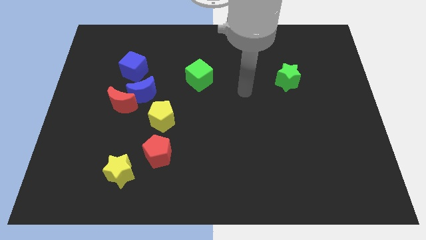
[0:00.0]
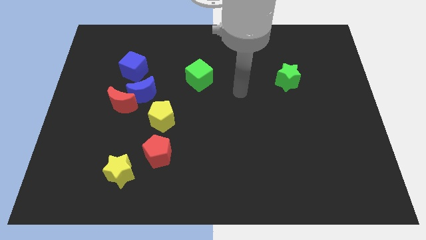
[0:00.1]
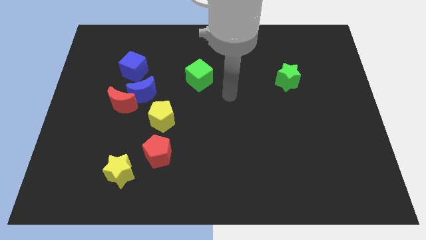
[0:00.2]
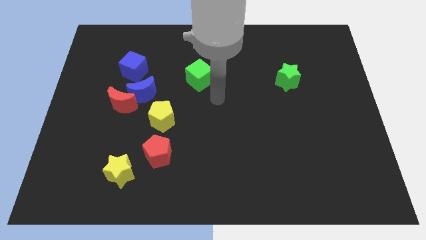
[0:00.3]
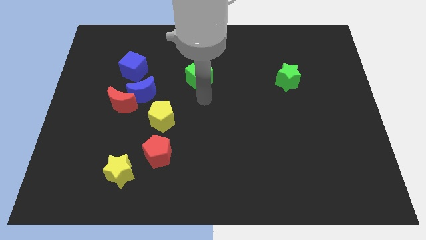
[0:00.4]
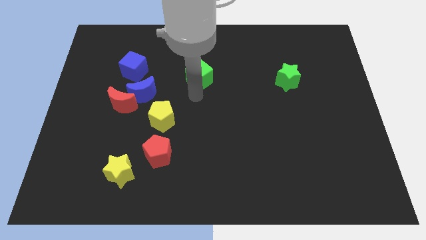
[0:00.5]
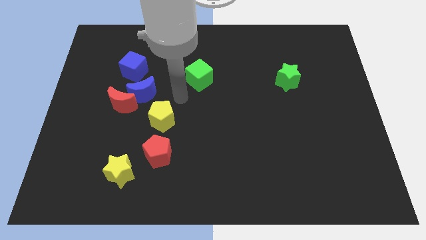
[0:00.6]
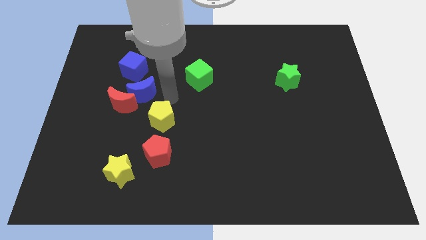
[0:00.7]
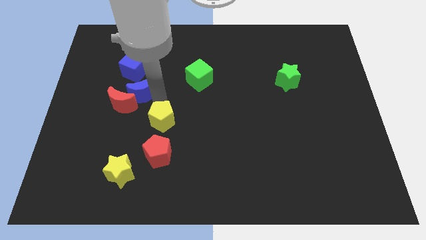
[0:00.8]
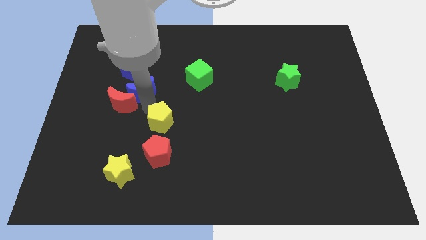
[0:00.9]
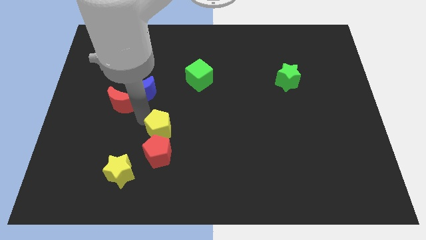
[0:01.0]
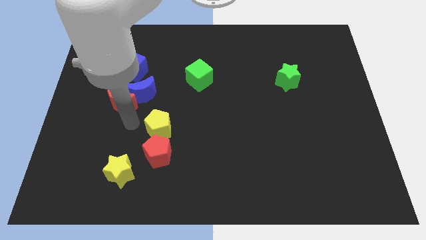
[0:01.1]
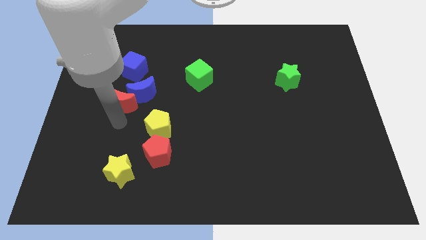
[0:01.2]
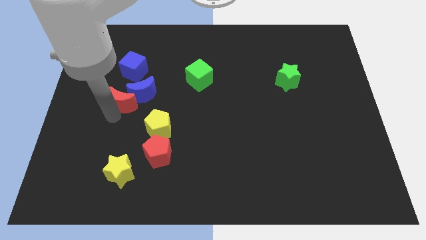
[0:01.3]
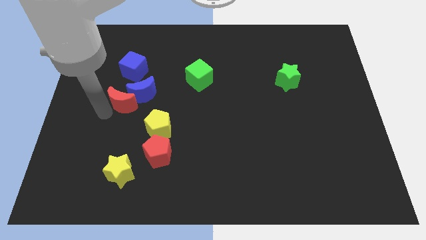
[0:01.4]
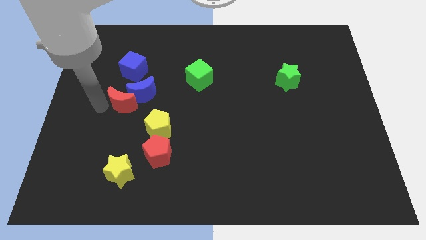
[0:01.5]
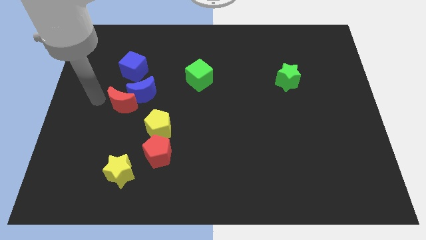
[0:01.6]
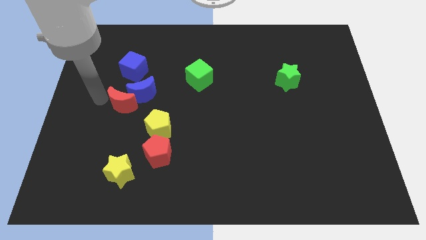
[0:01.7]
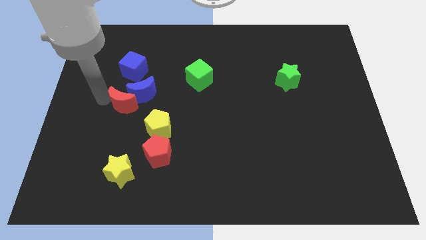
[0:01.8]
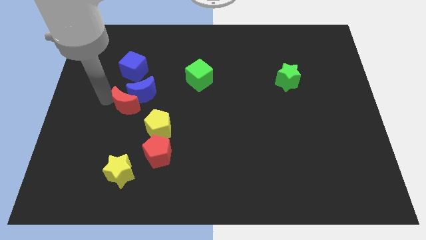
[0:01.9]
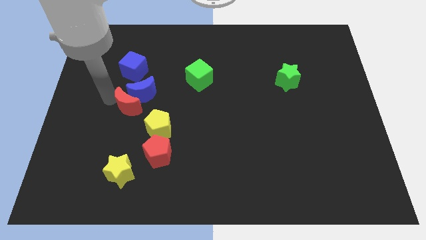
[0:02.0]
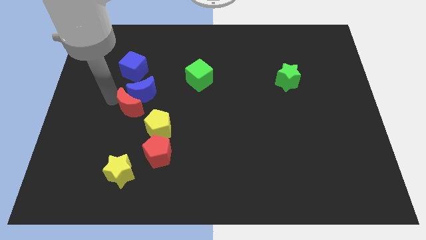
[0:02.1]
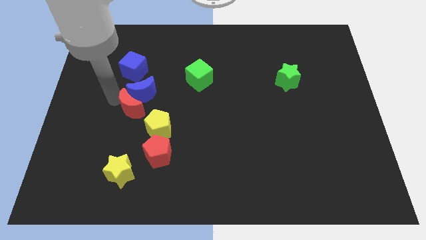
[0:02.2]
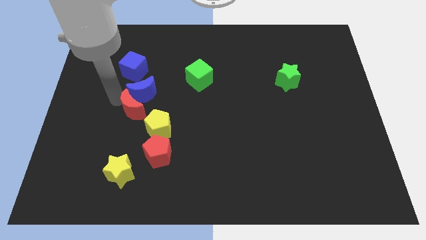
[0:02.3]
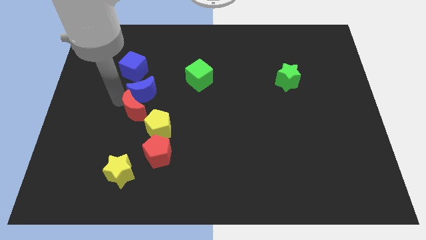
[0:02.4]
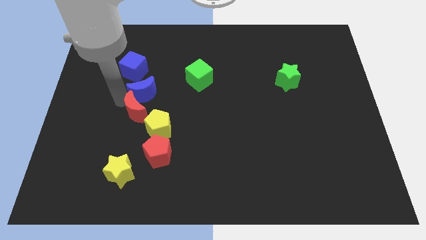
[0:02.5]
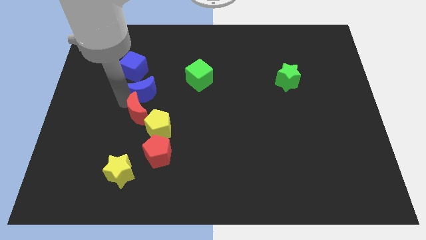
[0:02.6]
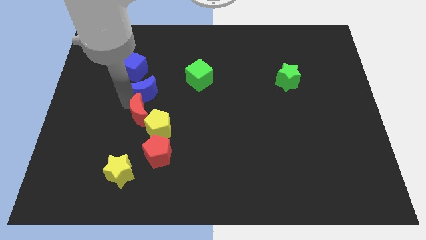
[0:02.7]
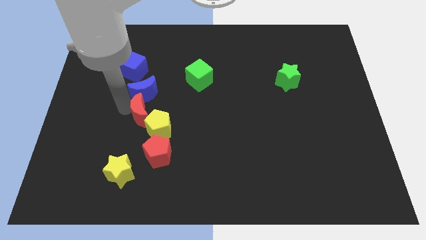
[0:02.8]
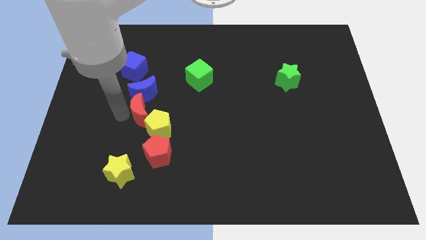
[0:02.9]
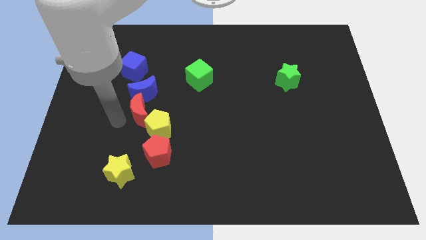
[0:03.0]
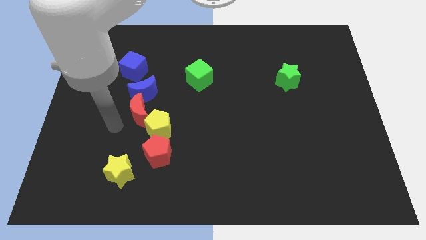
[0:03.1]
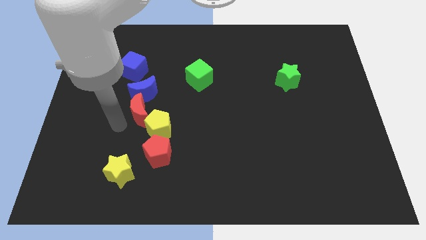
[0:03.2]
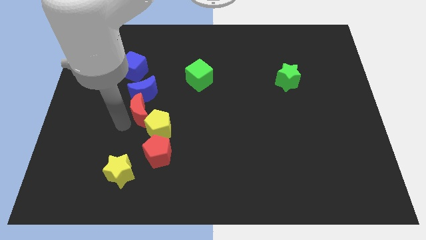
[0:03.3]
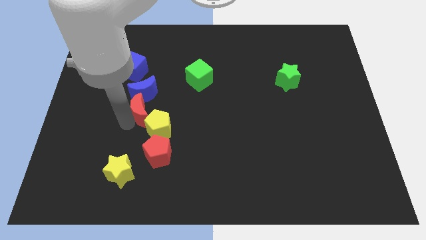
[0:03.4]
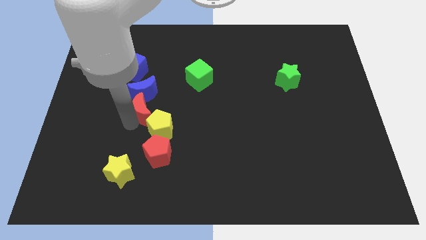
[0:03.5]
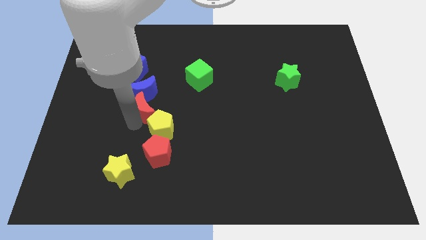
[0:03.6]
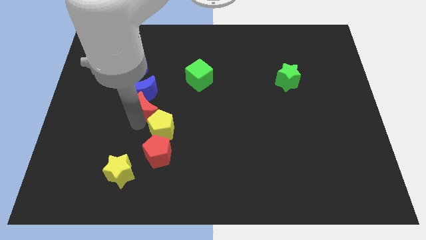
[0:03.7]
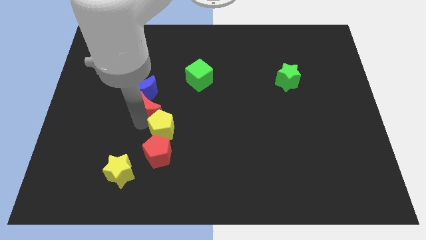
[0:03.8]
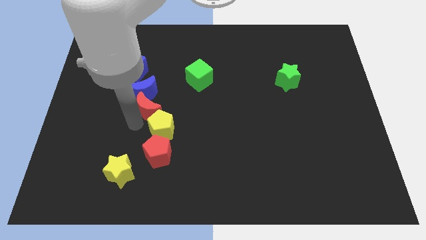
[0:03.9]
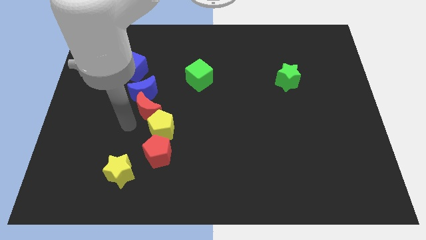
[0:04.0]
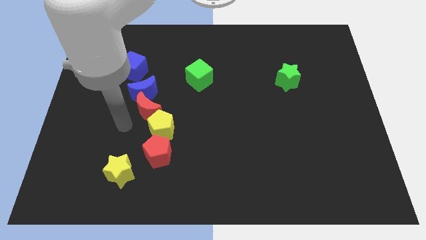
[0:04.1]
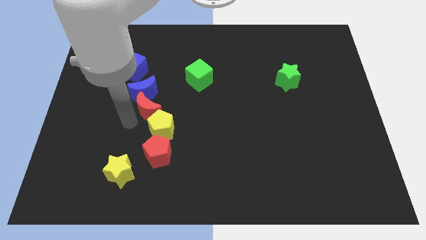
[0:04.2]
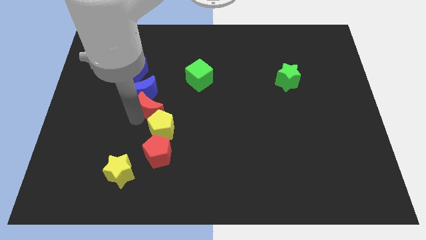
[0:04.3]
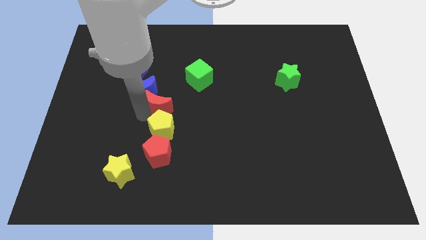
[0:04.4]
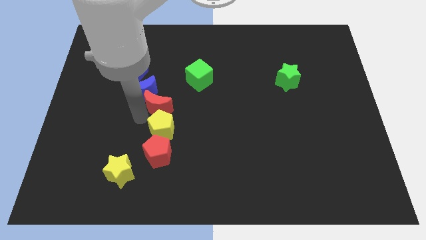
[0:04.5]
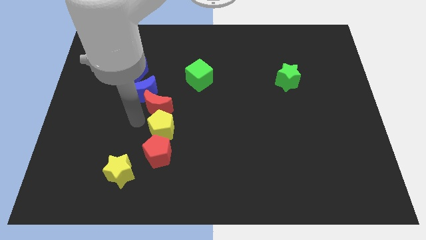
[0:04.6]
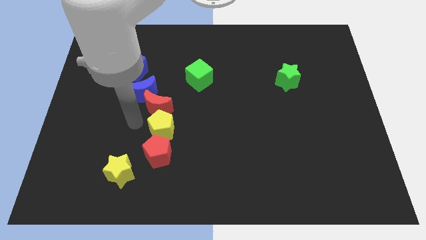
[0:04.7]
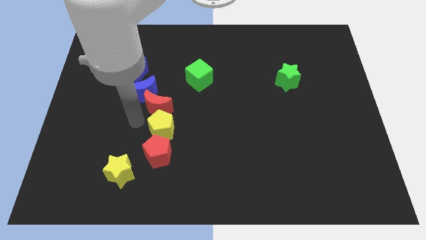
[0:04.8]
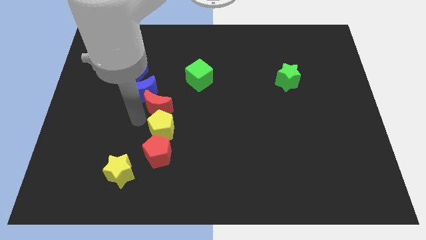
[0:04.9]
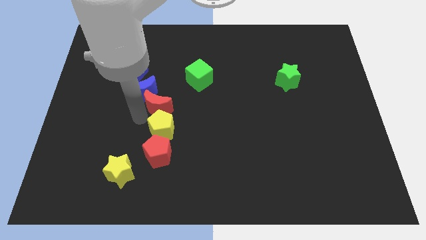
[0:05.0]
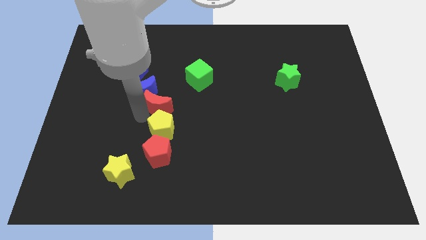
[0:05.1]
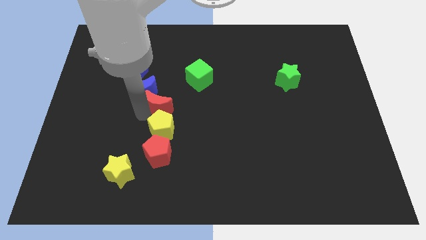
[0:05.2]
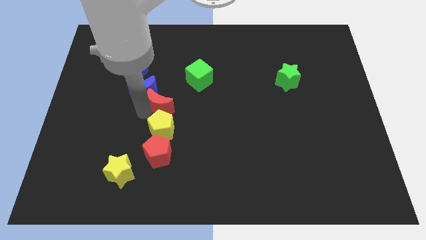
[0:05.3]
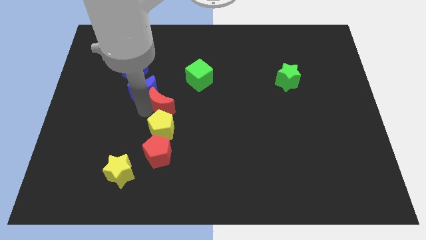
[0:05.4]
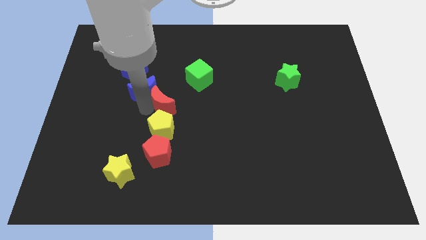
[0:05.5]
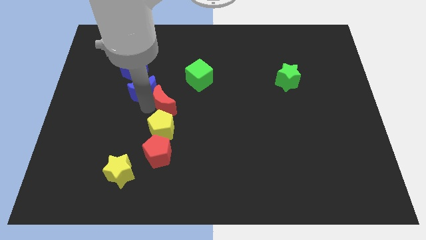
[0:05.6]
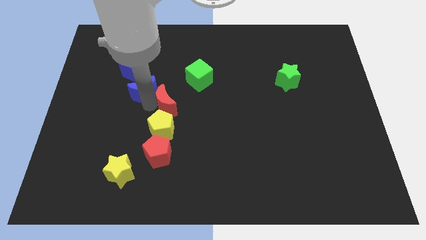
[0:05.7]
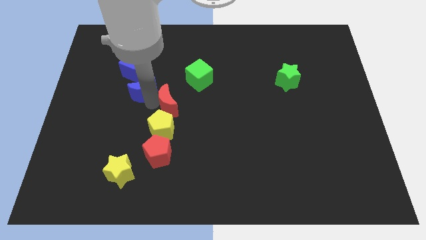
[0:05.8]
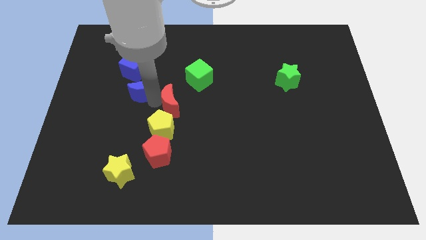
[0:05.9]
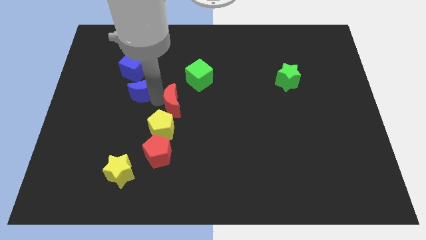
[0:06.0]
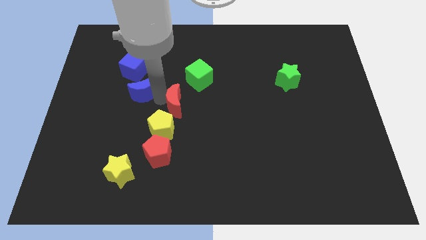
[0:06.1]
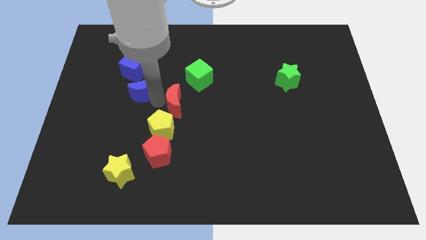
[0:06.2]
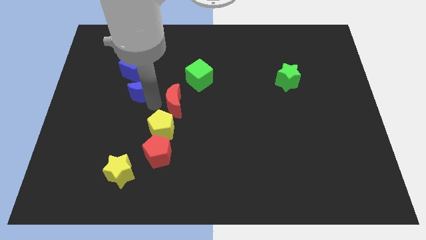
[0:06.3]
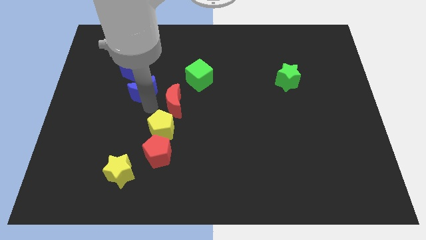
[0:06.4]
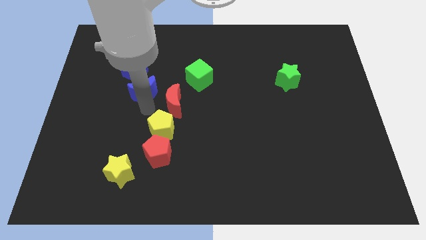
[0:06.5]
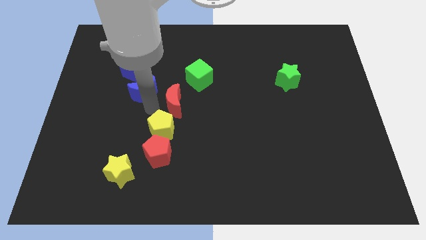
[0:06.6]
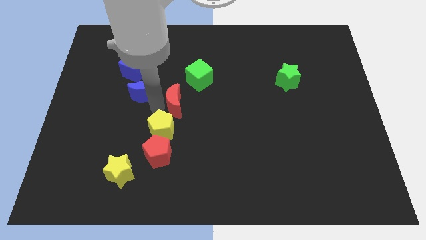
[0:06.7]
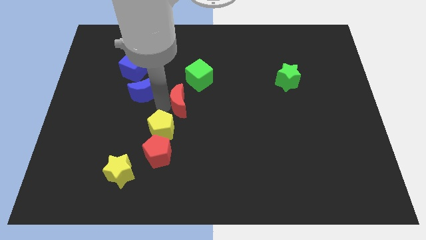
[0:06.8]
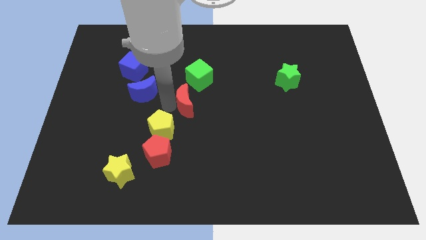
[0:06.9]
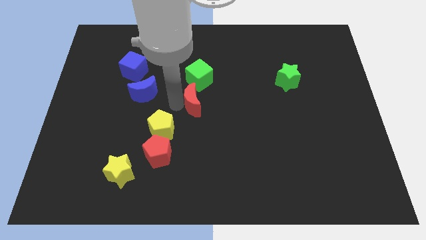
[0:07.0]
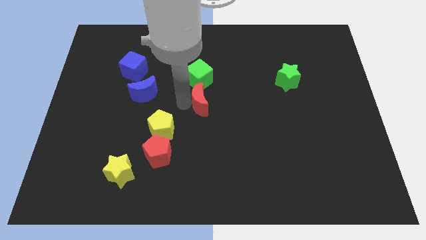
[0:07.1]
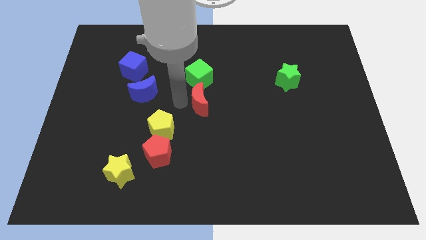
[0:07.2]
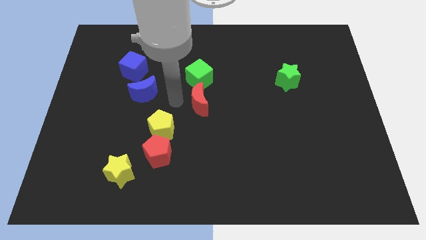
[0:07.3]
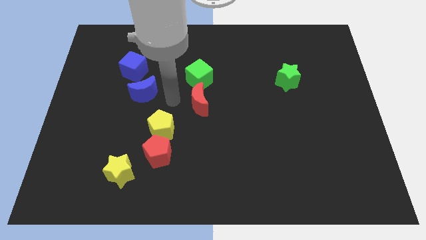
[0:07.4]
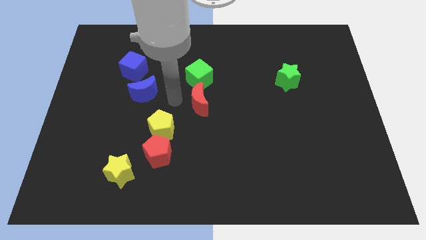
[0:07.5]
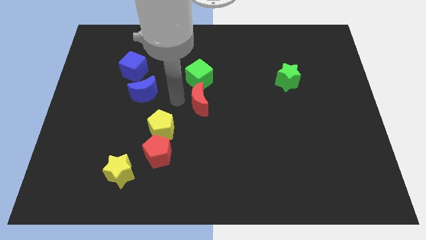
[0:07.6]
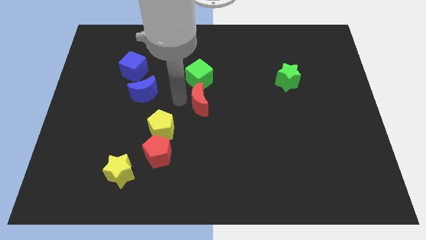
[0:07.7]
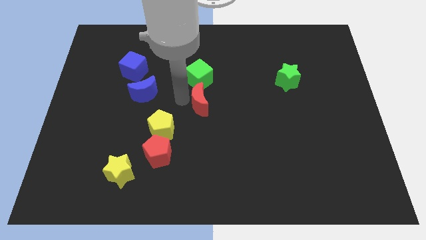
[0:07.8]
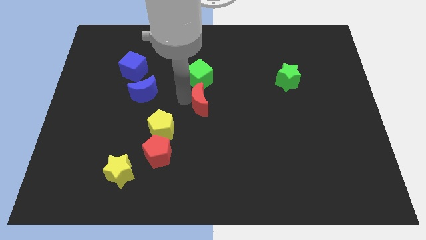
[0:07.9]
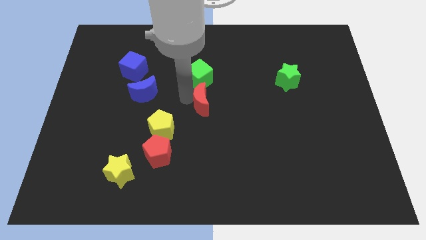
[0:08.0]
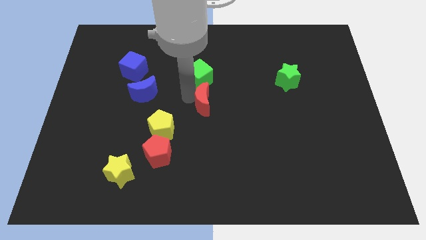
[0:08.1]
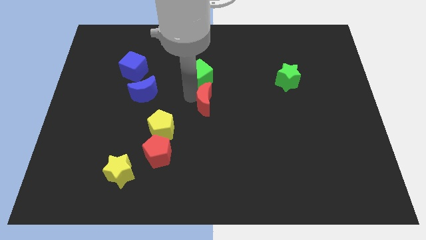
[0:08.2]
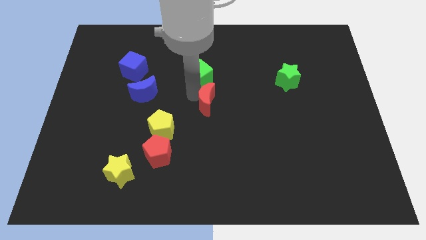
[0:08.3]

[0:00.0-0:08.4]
slide the red moon to the right

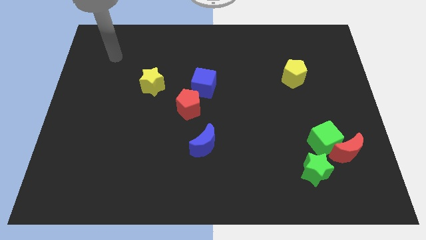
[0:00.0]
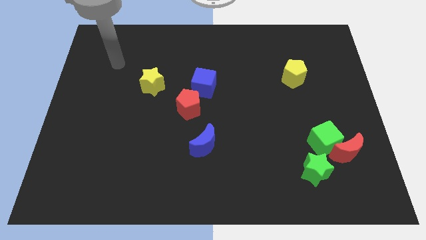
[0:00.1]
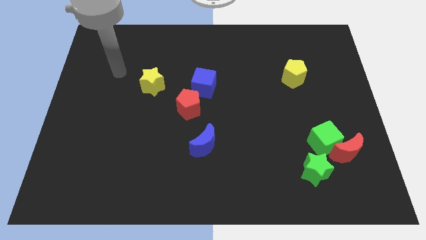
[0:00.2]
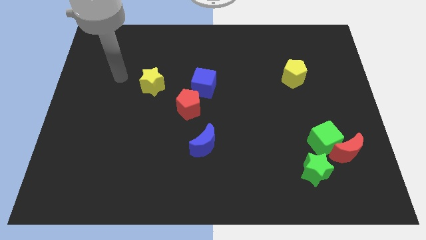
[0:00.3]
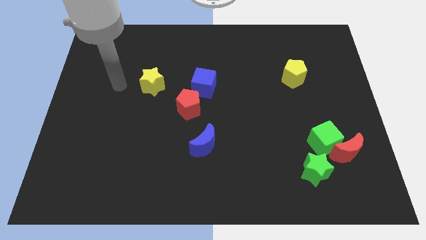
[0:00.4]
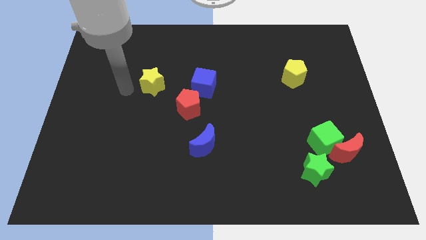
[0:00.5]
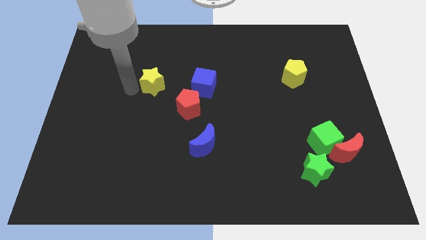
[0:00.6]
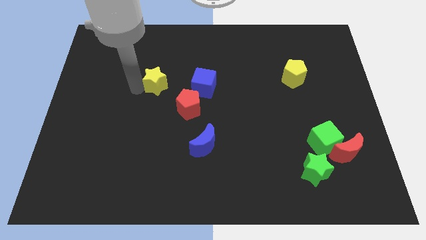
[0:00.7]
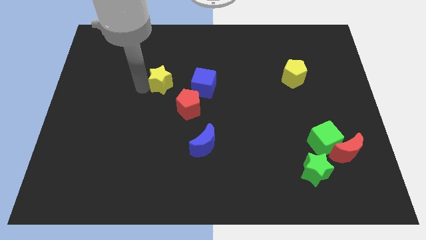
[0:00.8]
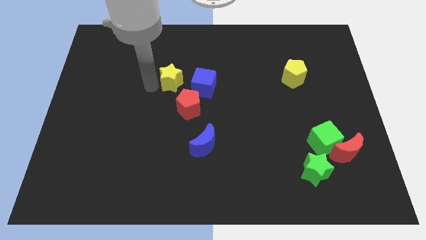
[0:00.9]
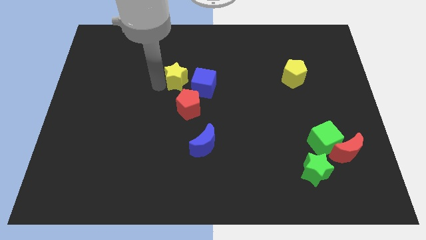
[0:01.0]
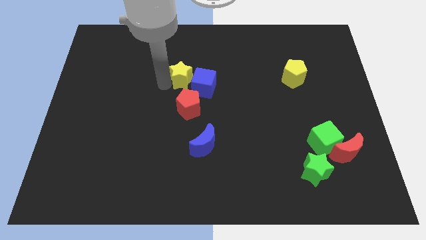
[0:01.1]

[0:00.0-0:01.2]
slightly push the yellow star to the right
